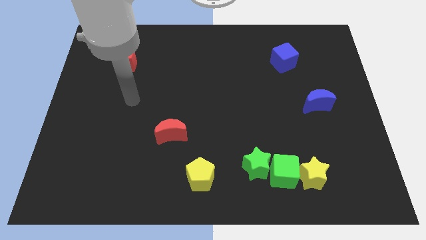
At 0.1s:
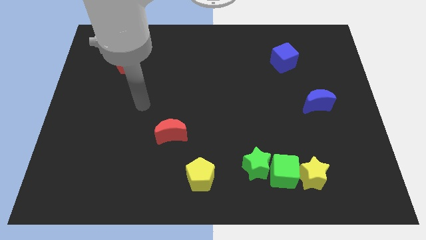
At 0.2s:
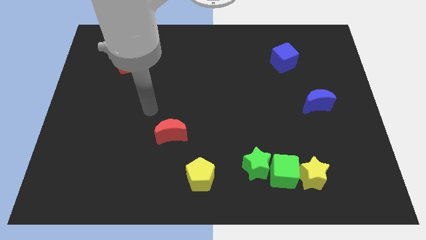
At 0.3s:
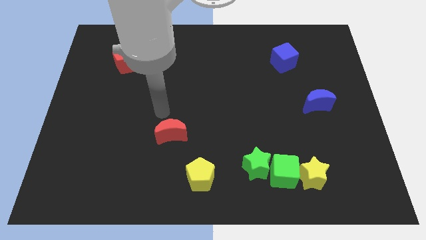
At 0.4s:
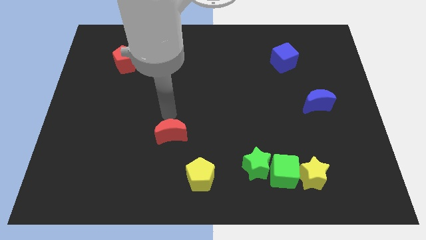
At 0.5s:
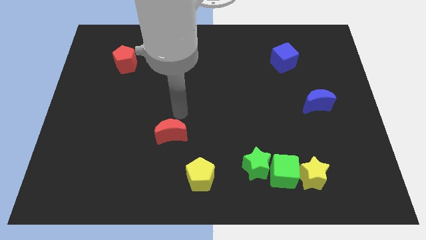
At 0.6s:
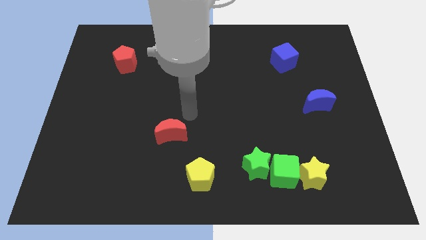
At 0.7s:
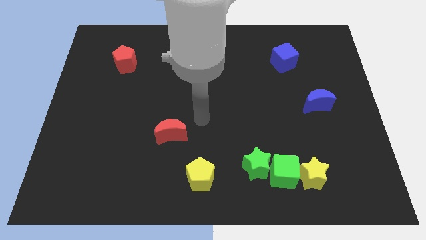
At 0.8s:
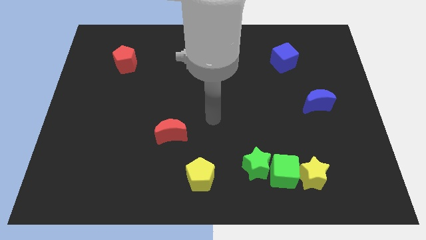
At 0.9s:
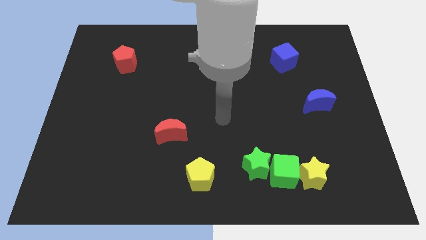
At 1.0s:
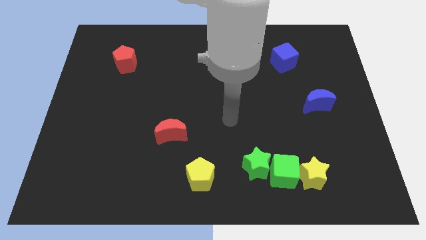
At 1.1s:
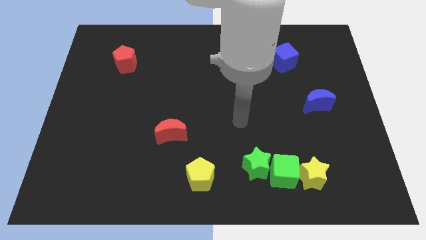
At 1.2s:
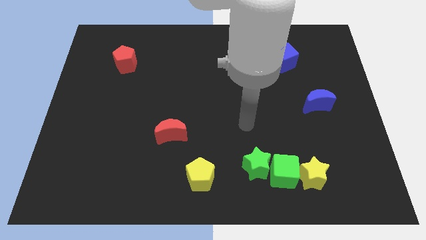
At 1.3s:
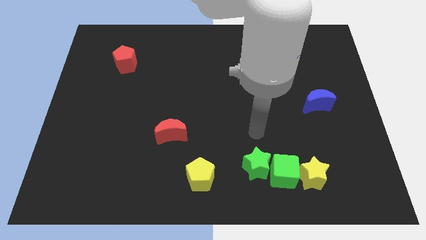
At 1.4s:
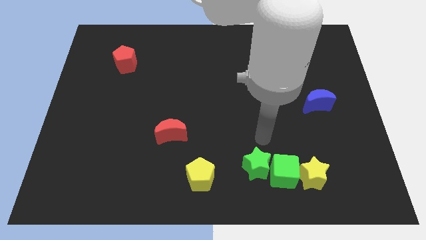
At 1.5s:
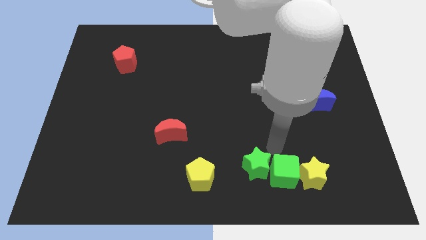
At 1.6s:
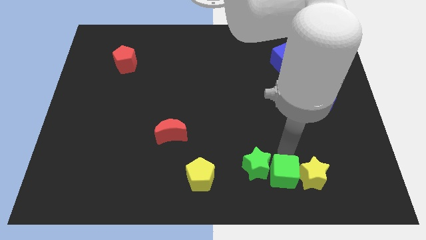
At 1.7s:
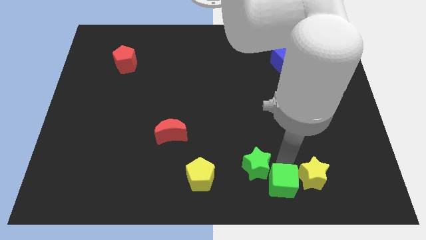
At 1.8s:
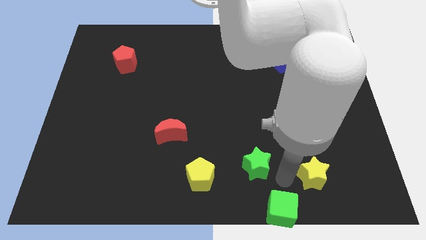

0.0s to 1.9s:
move the green star away from the green cube

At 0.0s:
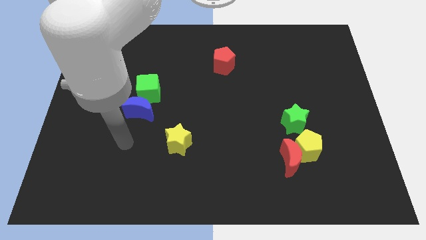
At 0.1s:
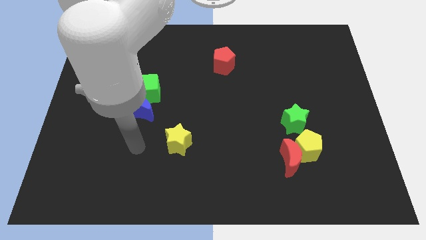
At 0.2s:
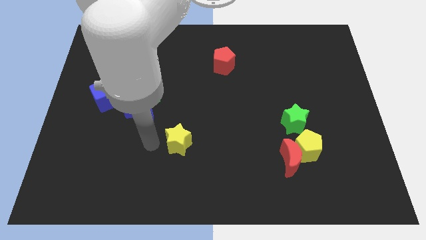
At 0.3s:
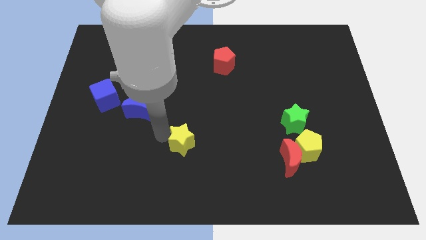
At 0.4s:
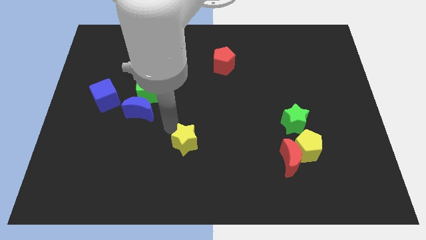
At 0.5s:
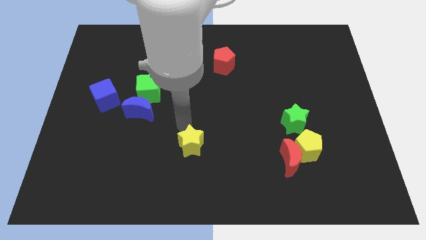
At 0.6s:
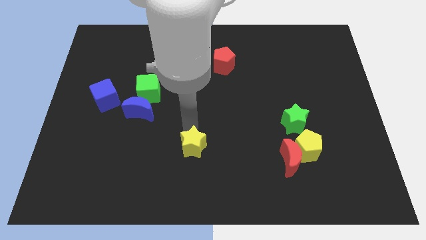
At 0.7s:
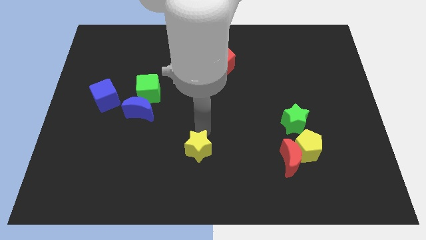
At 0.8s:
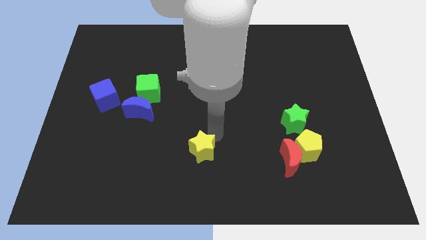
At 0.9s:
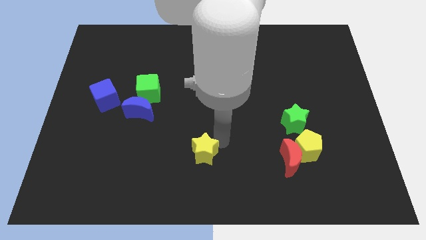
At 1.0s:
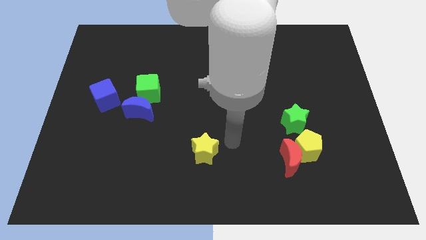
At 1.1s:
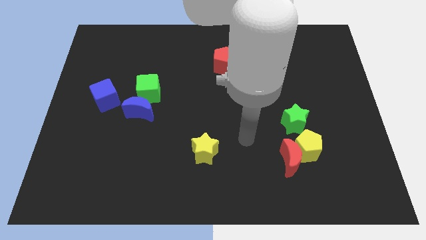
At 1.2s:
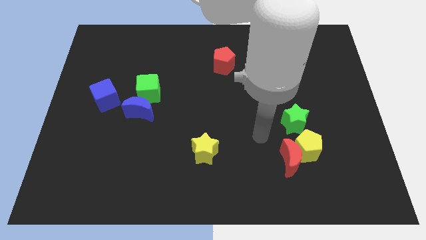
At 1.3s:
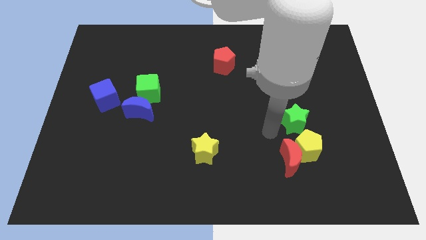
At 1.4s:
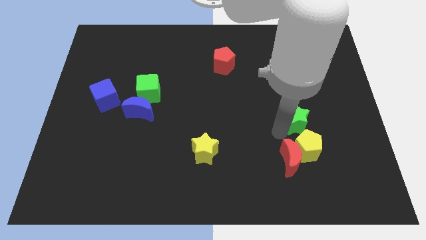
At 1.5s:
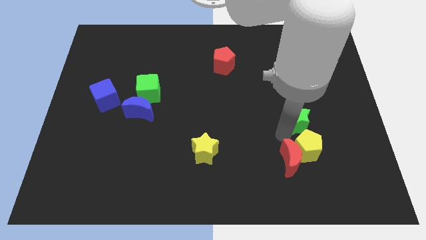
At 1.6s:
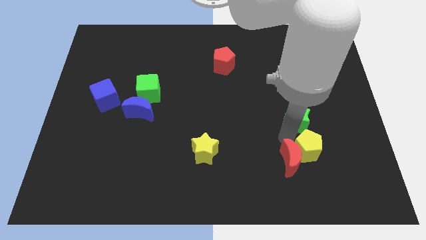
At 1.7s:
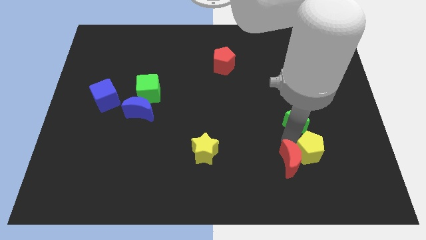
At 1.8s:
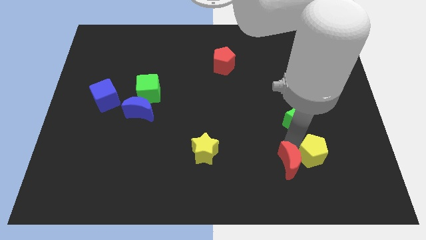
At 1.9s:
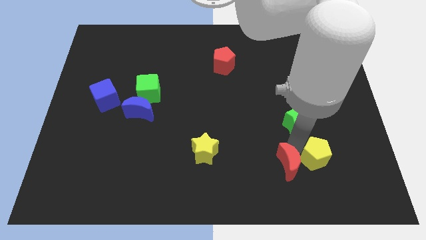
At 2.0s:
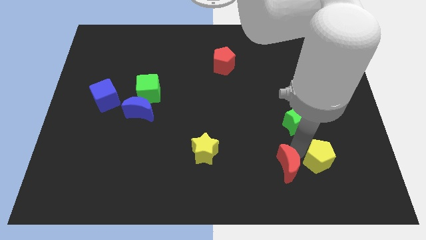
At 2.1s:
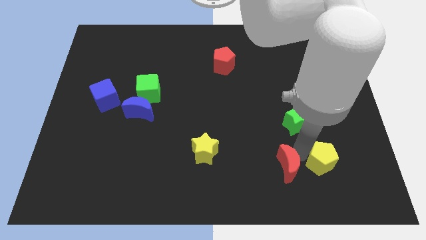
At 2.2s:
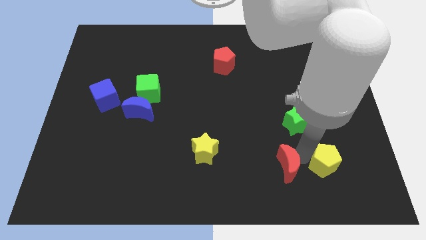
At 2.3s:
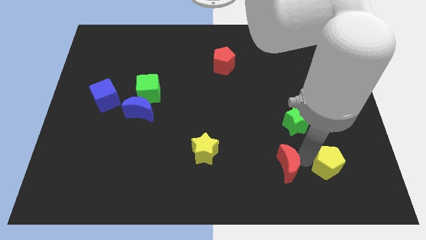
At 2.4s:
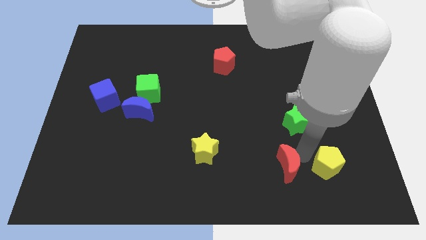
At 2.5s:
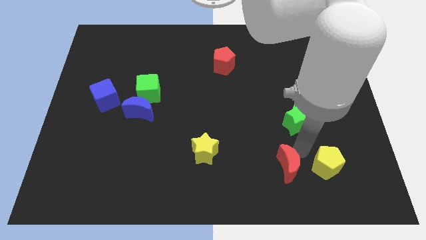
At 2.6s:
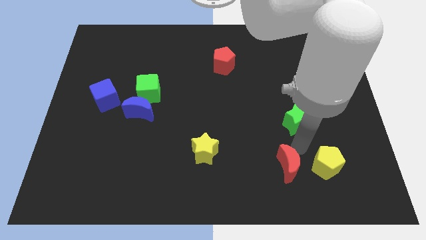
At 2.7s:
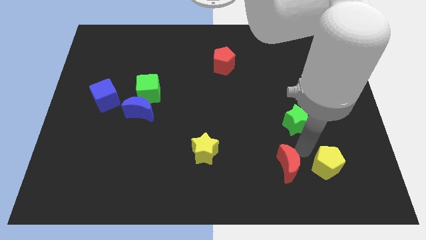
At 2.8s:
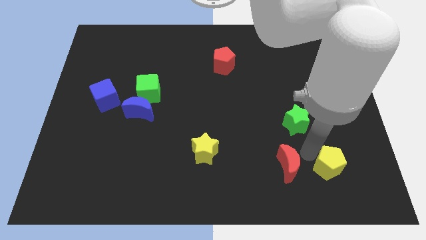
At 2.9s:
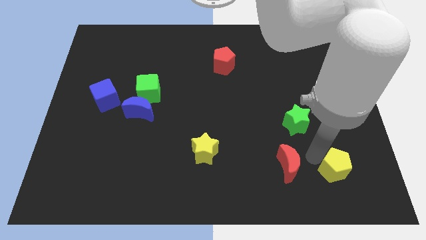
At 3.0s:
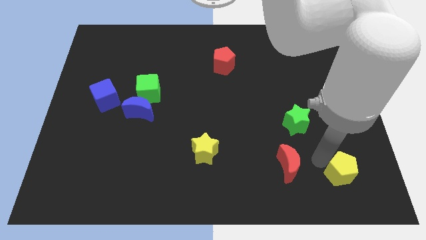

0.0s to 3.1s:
pull the yellow pentagon apart from the red moon and green star

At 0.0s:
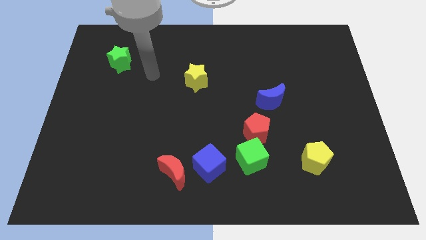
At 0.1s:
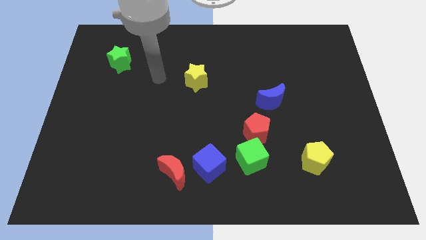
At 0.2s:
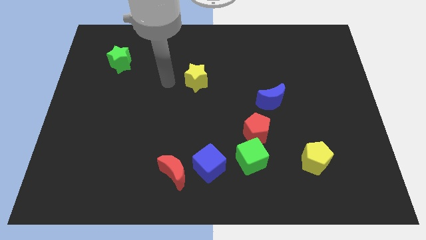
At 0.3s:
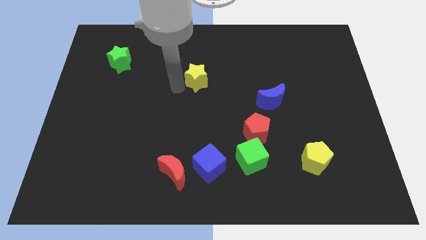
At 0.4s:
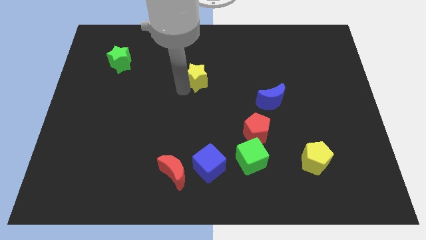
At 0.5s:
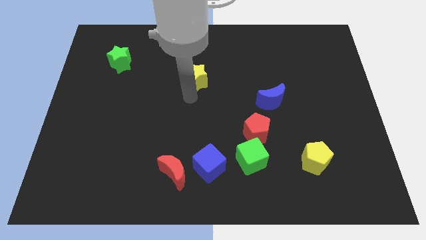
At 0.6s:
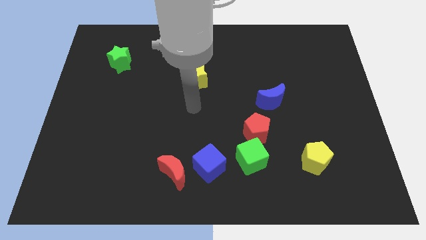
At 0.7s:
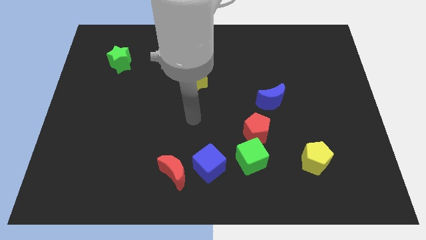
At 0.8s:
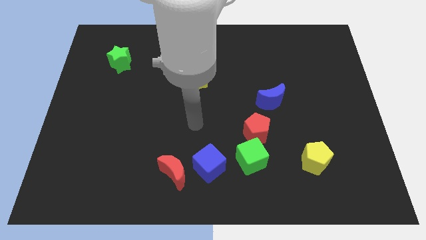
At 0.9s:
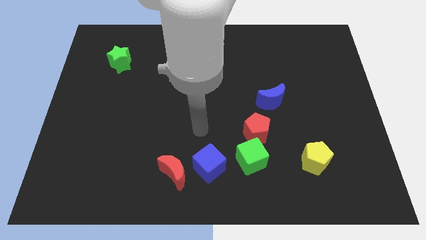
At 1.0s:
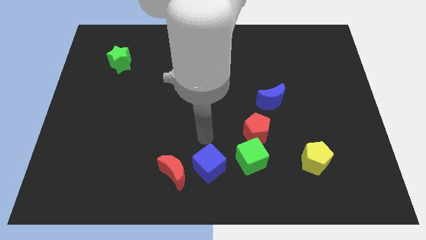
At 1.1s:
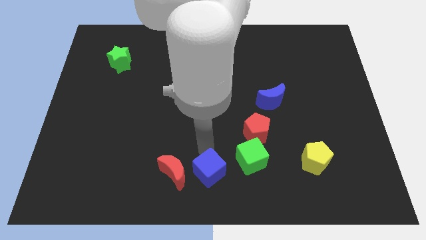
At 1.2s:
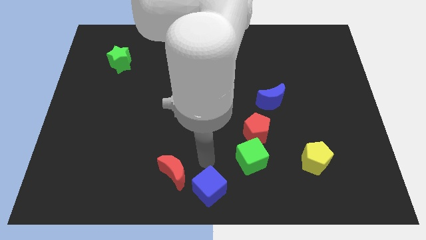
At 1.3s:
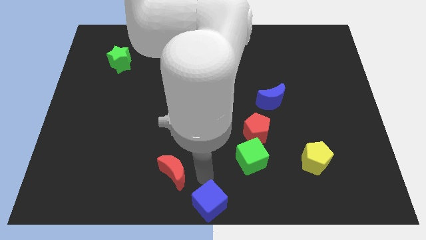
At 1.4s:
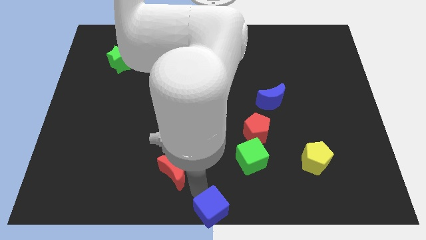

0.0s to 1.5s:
separate the red moon from the blue cube

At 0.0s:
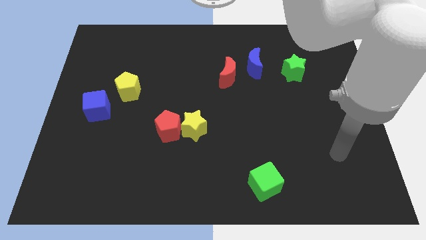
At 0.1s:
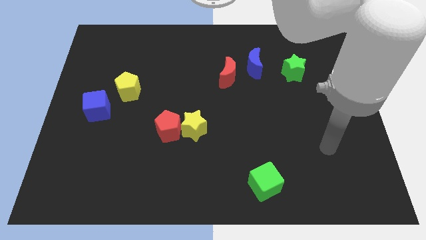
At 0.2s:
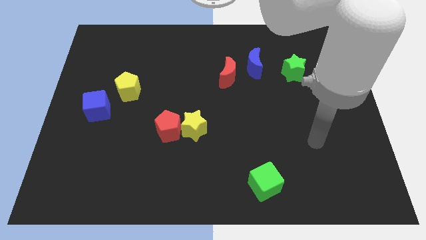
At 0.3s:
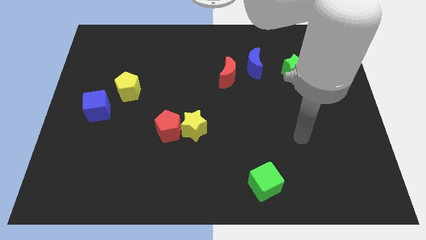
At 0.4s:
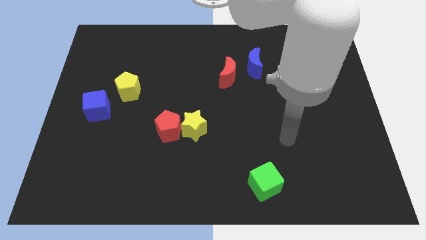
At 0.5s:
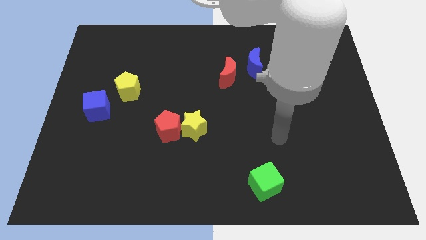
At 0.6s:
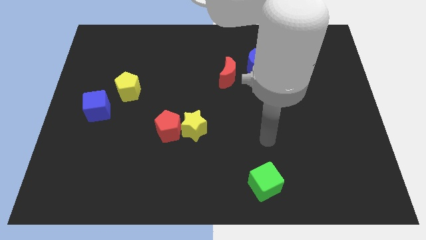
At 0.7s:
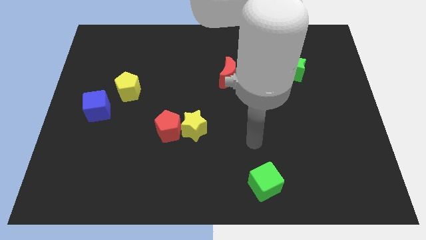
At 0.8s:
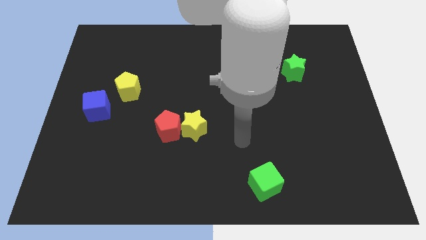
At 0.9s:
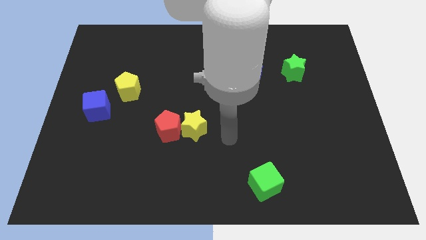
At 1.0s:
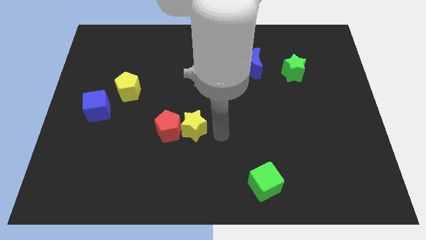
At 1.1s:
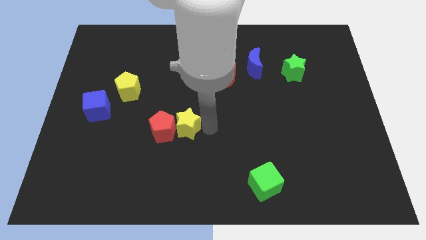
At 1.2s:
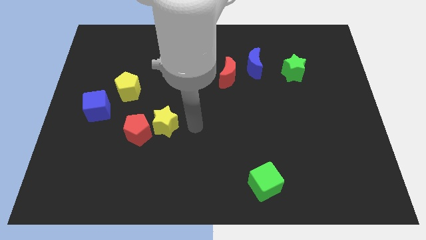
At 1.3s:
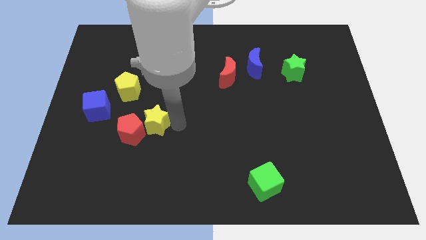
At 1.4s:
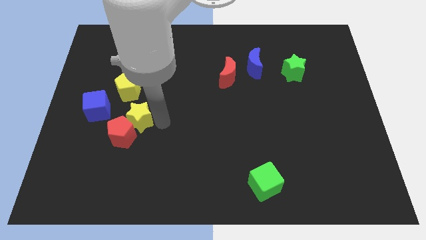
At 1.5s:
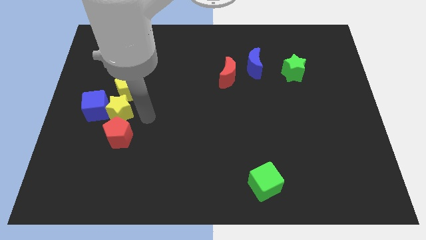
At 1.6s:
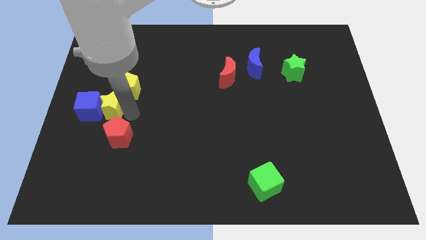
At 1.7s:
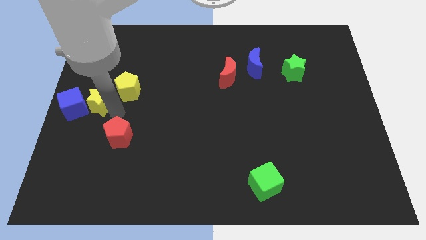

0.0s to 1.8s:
separate the red pentagon from the yellow star

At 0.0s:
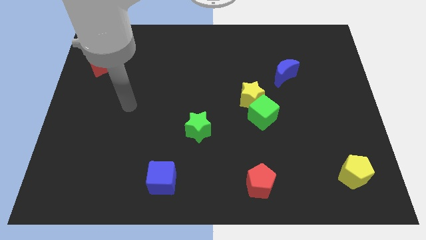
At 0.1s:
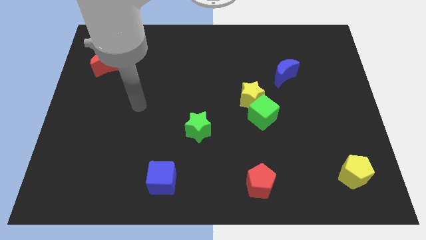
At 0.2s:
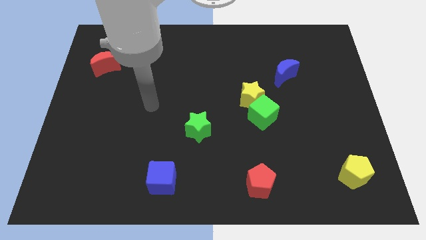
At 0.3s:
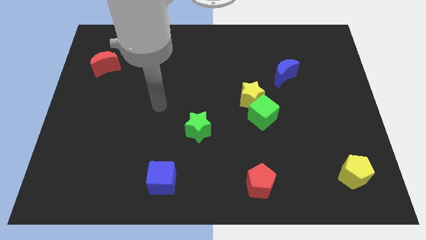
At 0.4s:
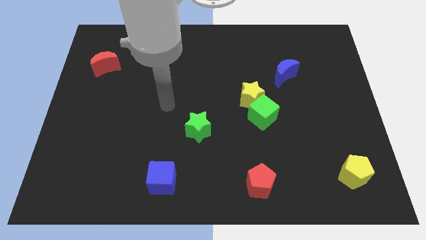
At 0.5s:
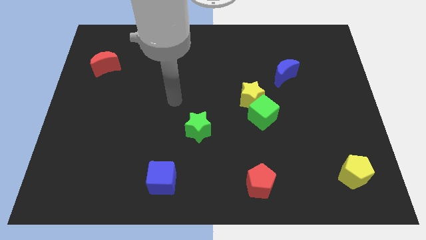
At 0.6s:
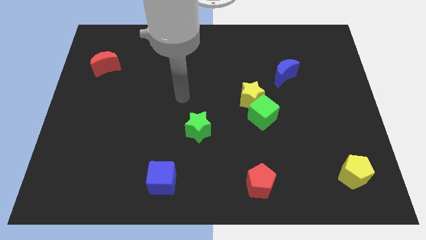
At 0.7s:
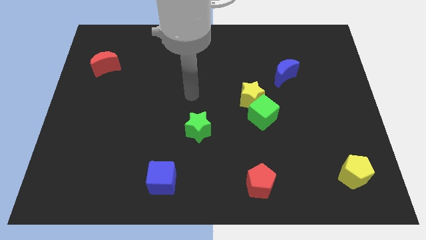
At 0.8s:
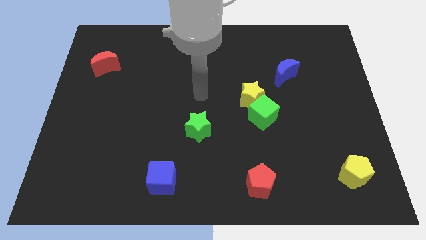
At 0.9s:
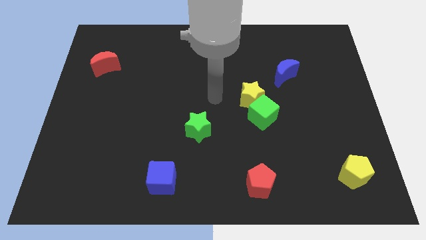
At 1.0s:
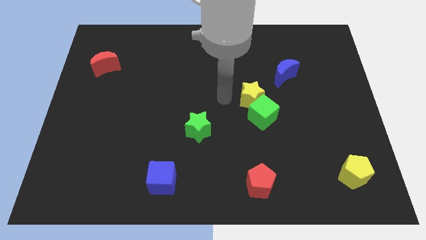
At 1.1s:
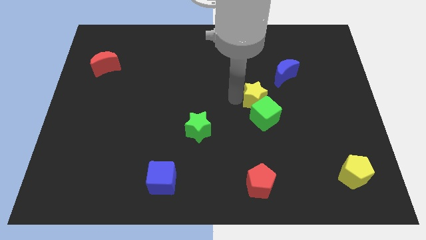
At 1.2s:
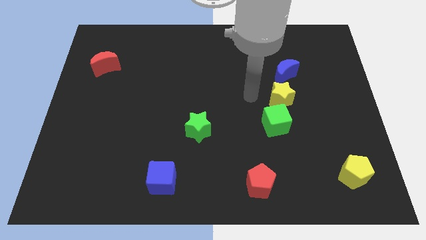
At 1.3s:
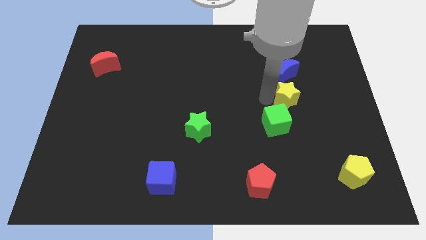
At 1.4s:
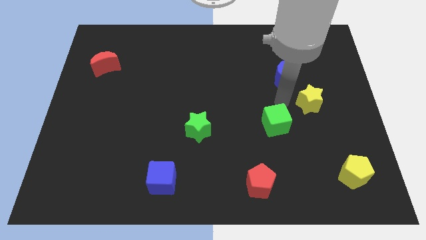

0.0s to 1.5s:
pull the green cube apart from the yellow star
